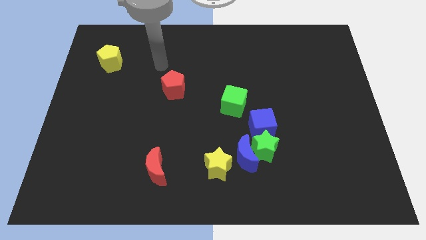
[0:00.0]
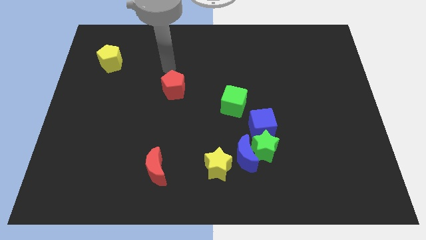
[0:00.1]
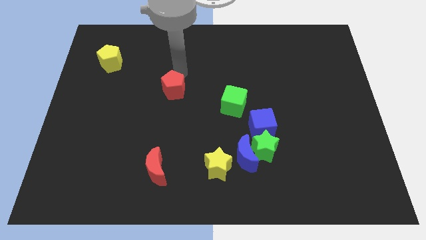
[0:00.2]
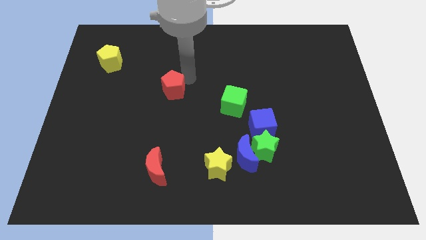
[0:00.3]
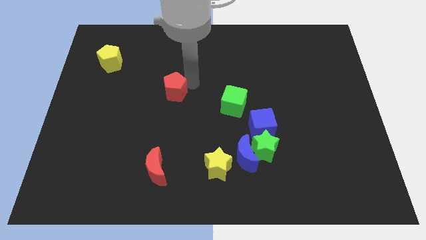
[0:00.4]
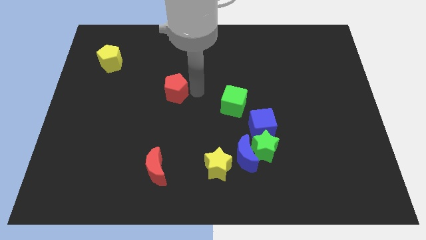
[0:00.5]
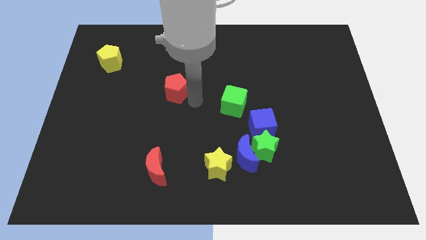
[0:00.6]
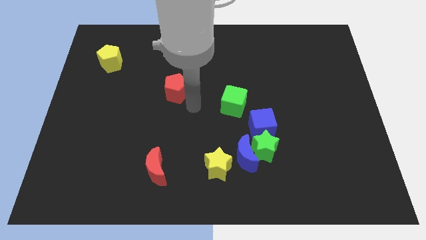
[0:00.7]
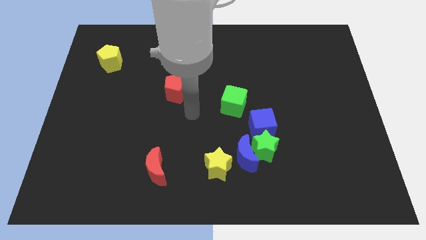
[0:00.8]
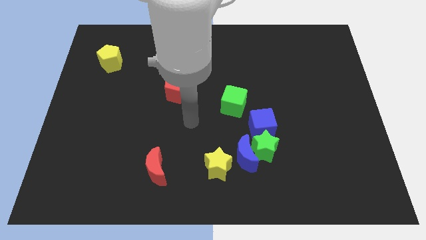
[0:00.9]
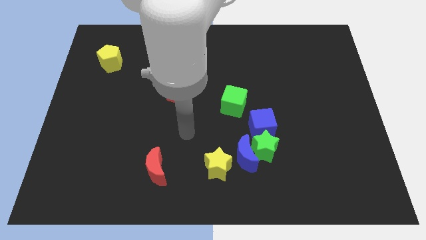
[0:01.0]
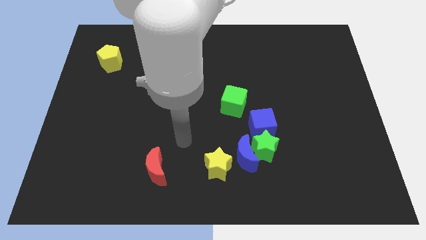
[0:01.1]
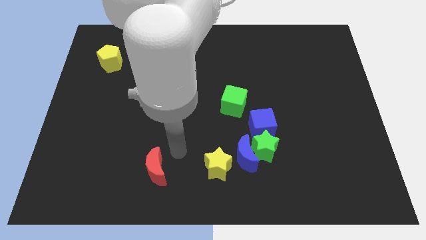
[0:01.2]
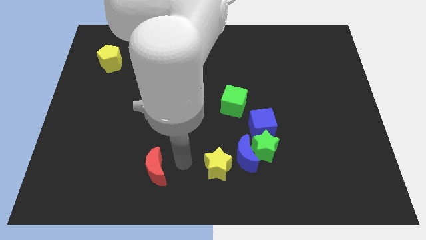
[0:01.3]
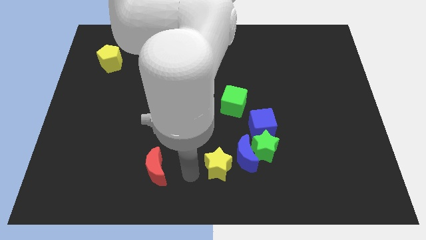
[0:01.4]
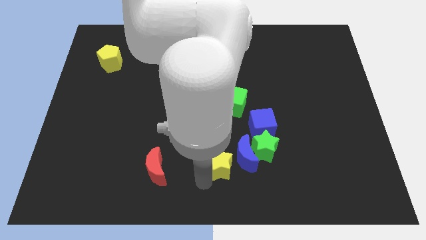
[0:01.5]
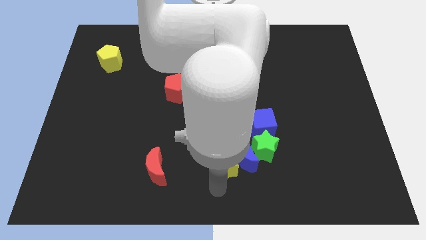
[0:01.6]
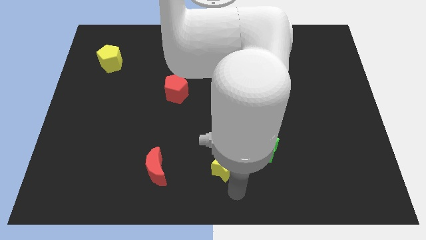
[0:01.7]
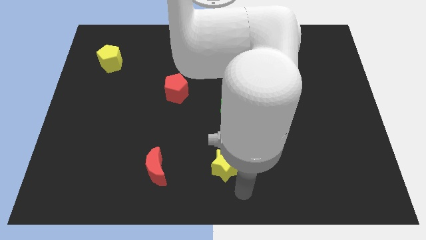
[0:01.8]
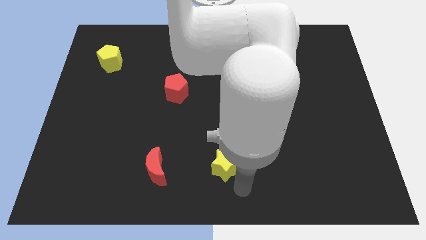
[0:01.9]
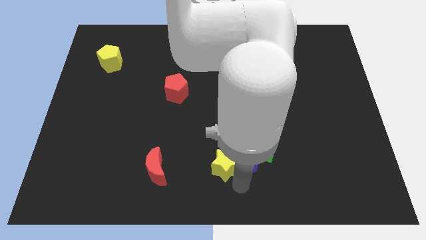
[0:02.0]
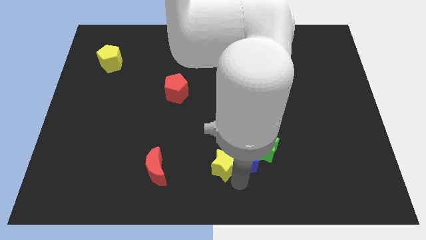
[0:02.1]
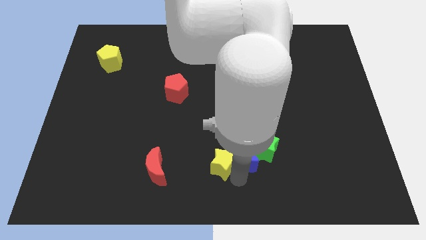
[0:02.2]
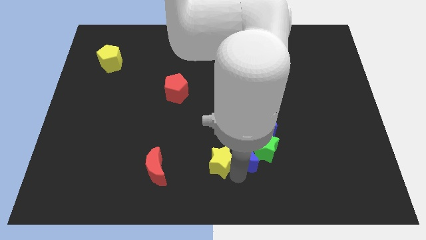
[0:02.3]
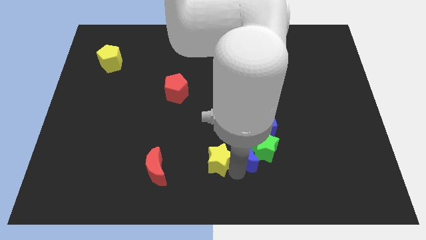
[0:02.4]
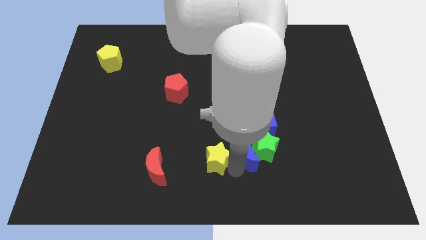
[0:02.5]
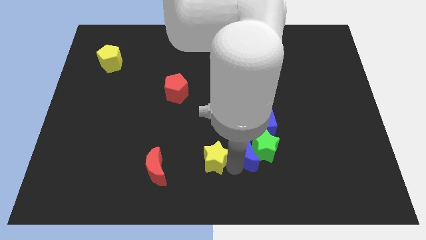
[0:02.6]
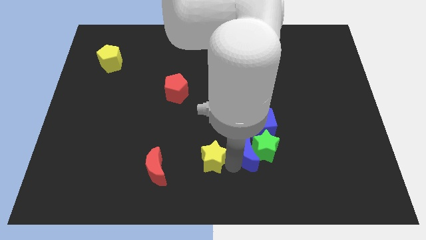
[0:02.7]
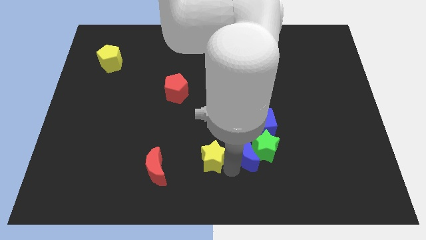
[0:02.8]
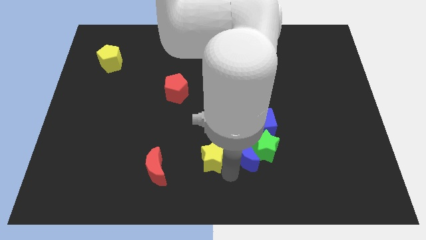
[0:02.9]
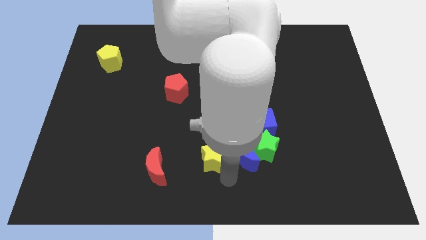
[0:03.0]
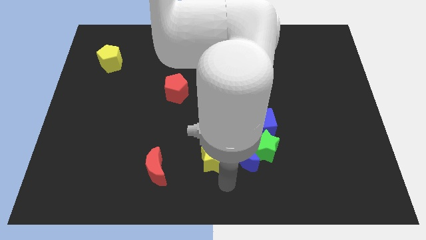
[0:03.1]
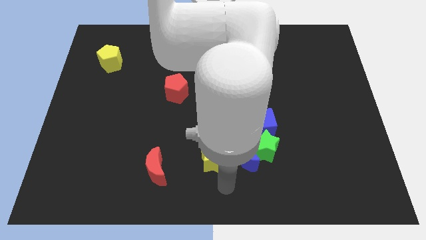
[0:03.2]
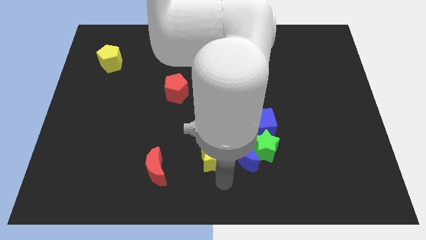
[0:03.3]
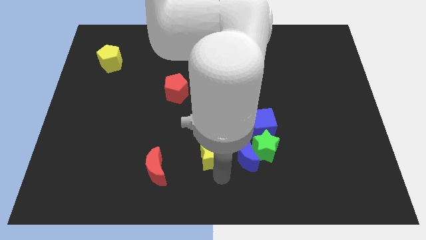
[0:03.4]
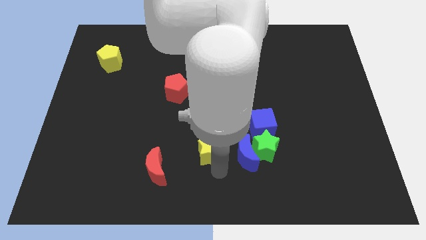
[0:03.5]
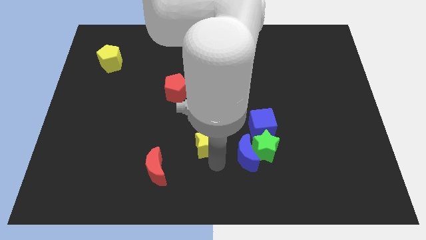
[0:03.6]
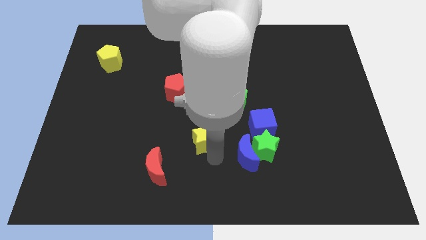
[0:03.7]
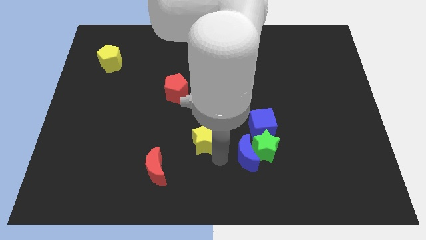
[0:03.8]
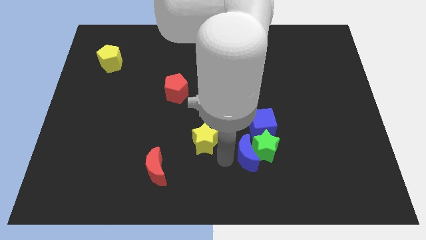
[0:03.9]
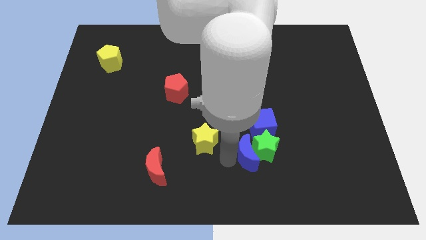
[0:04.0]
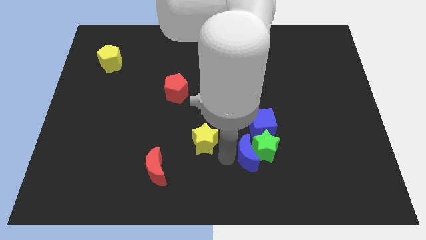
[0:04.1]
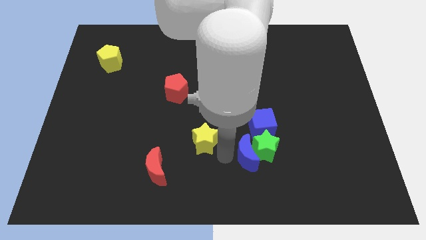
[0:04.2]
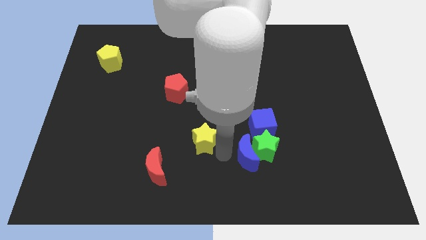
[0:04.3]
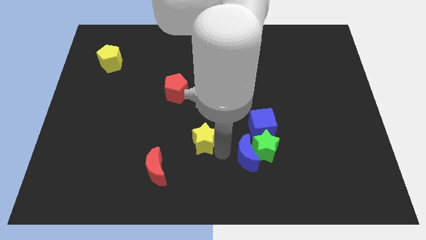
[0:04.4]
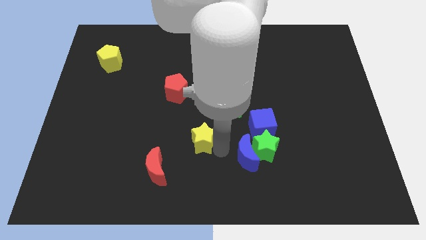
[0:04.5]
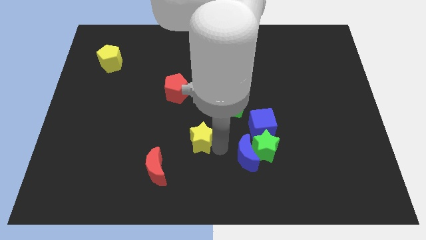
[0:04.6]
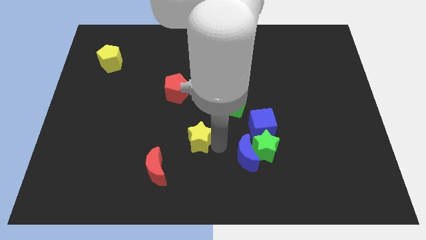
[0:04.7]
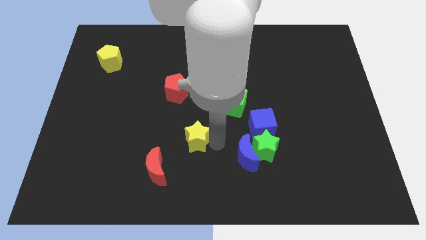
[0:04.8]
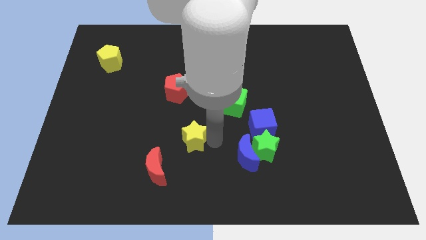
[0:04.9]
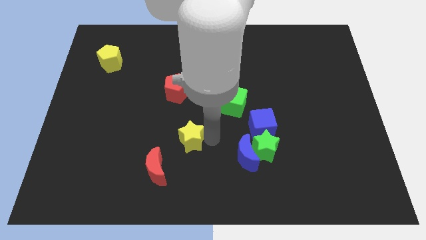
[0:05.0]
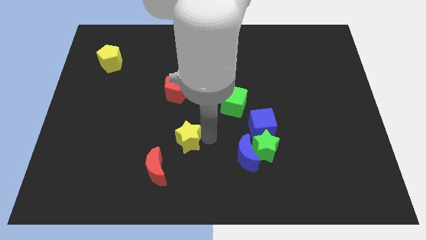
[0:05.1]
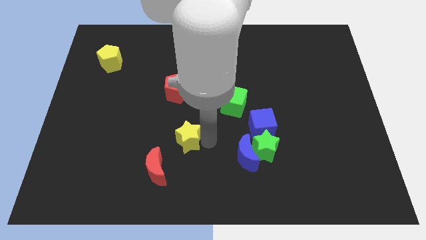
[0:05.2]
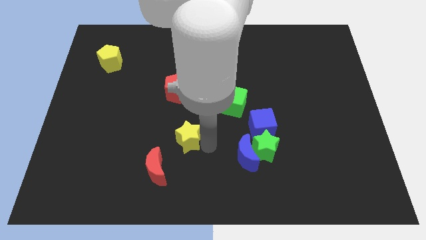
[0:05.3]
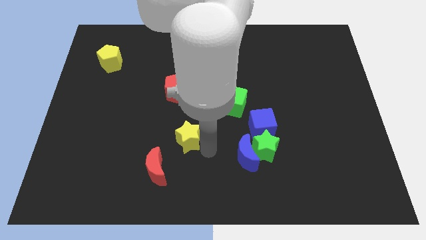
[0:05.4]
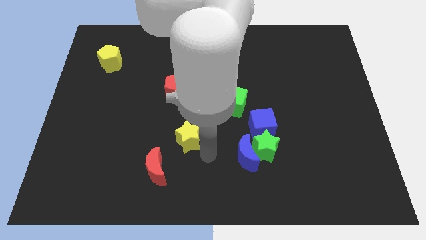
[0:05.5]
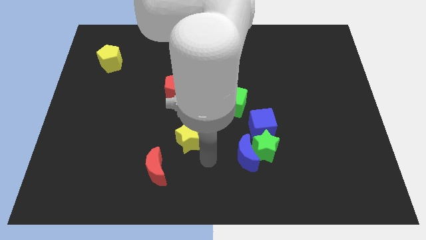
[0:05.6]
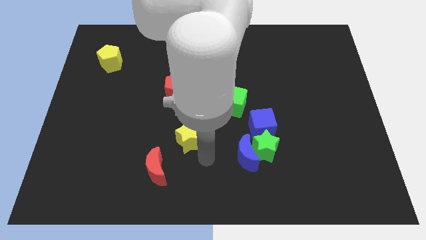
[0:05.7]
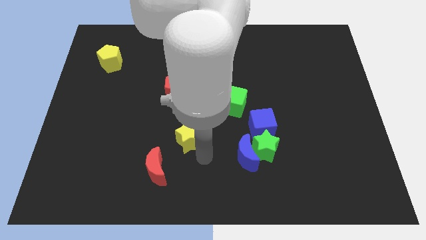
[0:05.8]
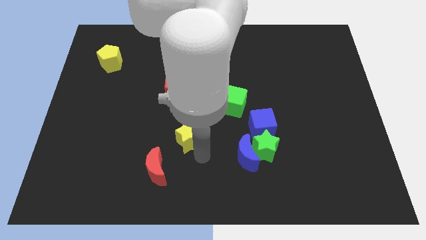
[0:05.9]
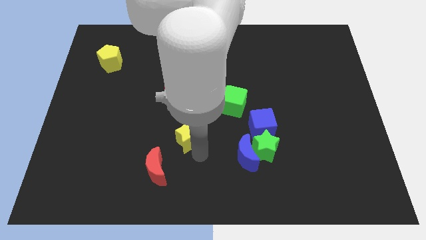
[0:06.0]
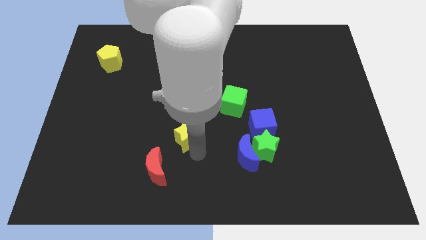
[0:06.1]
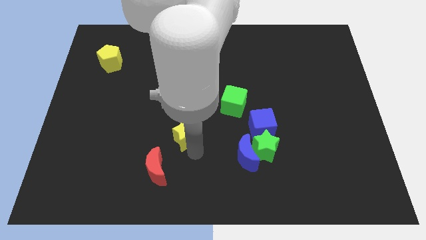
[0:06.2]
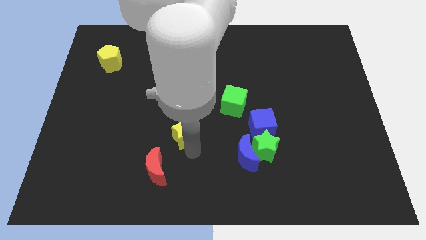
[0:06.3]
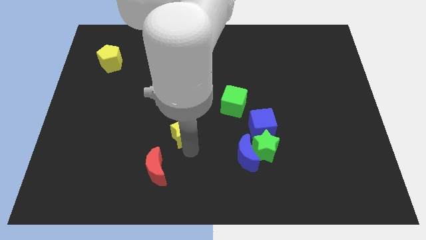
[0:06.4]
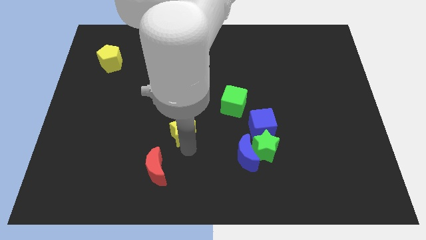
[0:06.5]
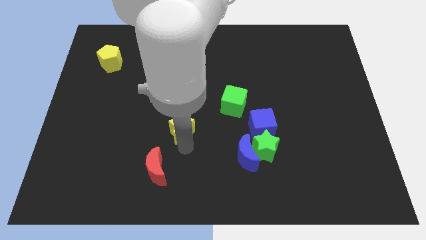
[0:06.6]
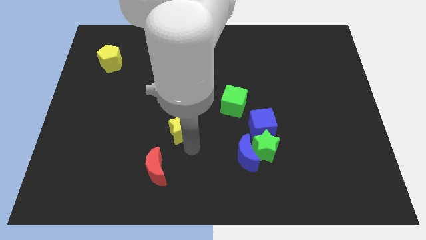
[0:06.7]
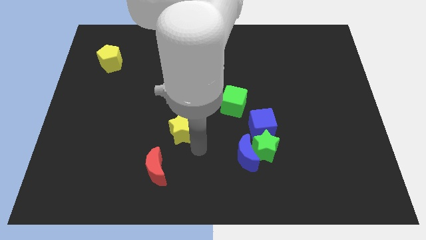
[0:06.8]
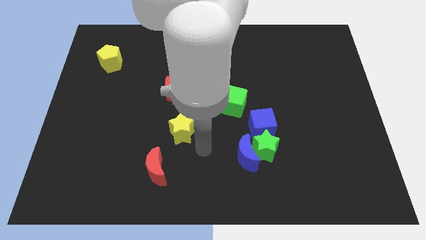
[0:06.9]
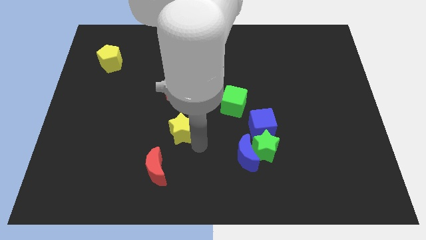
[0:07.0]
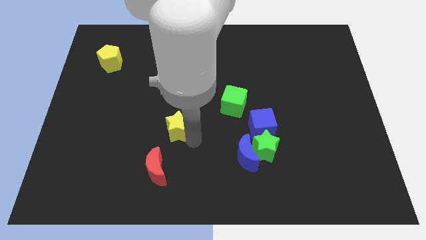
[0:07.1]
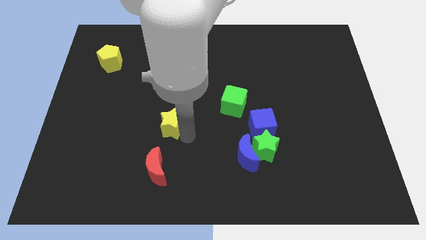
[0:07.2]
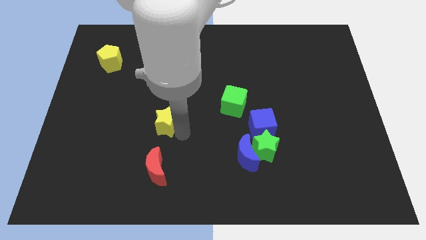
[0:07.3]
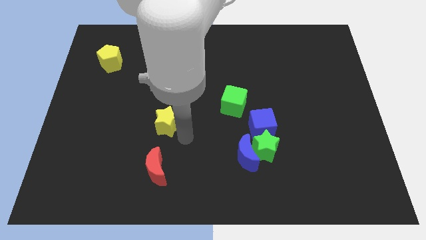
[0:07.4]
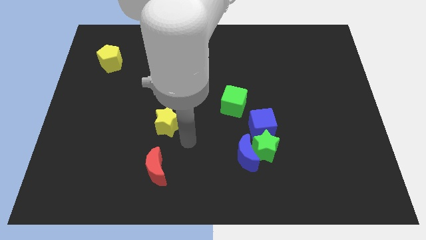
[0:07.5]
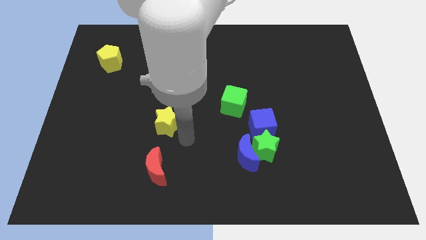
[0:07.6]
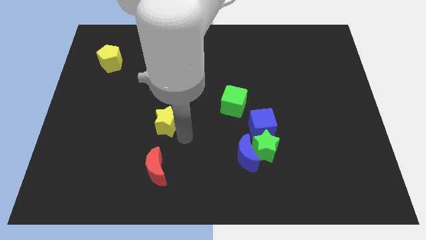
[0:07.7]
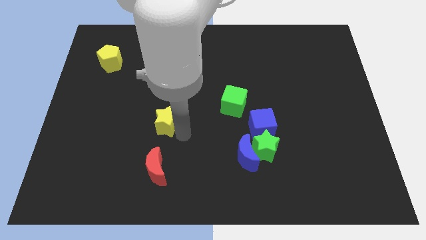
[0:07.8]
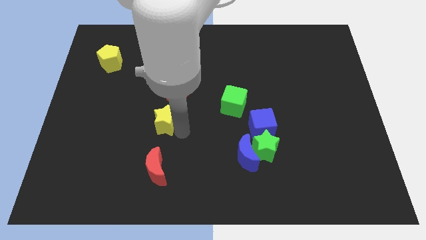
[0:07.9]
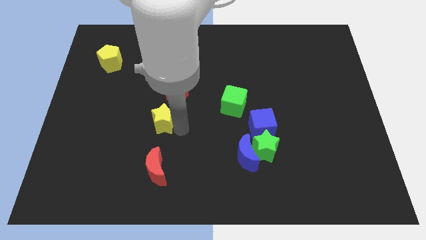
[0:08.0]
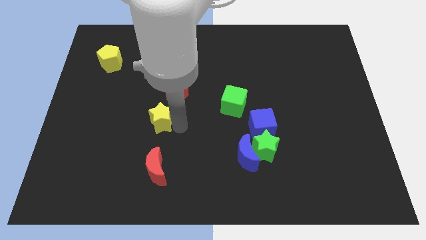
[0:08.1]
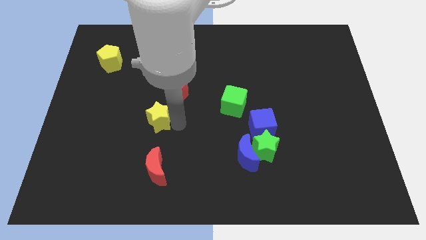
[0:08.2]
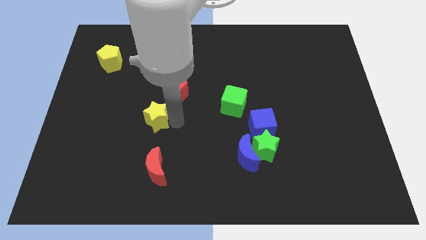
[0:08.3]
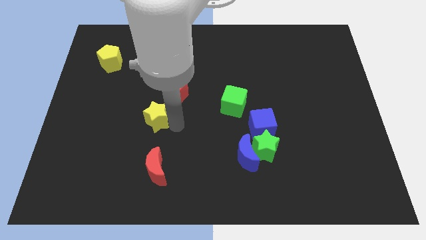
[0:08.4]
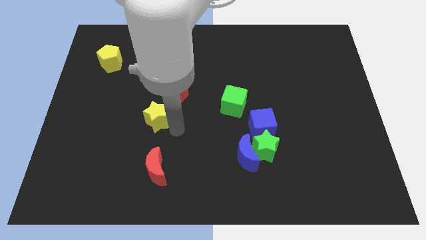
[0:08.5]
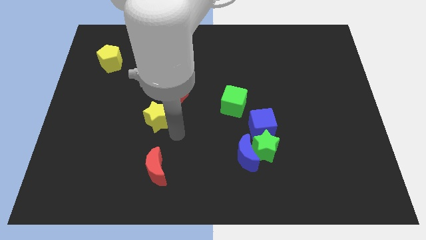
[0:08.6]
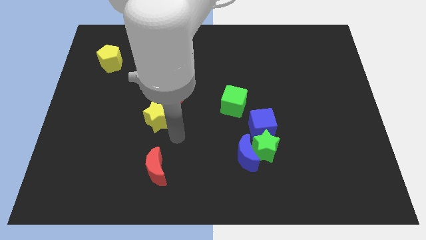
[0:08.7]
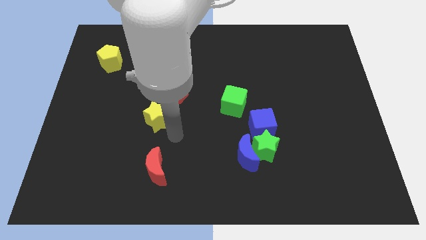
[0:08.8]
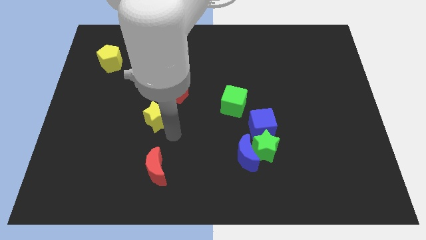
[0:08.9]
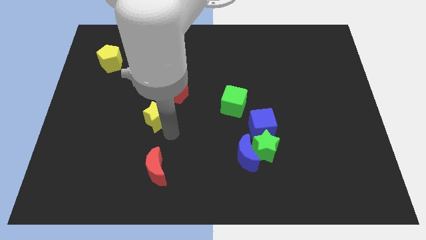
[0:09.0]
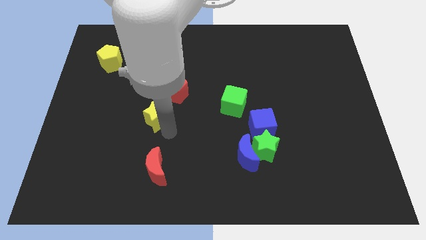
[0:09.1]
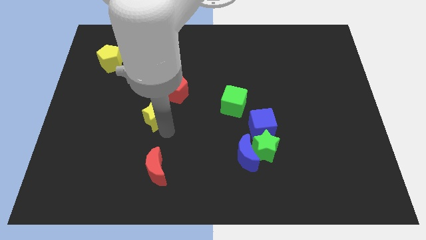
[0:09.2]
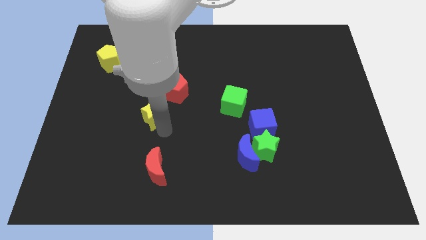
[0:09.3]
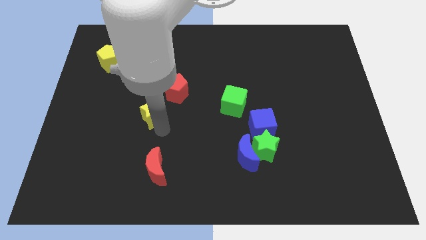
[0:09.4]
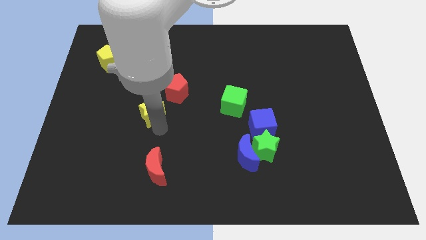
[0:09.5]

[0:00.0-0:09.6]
slide the yellow star up and then left
